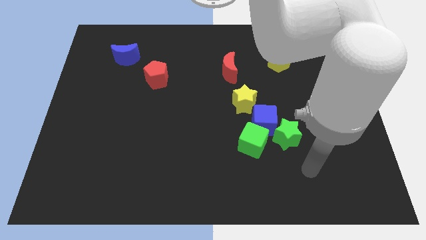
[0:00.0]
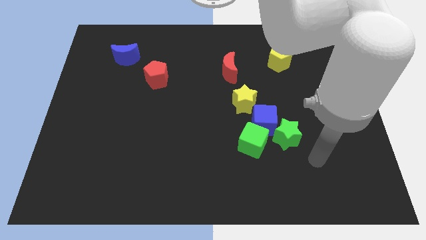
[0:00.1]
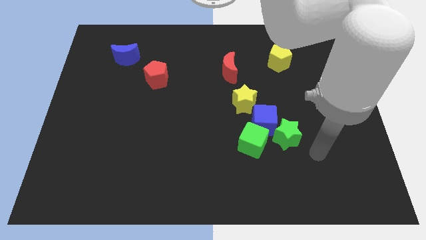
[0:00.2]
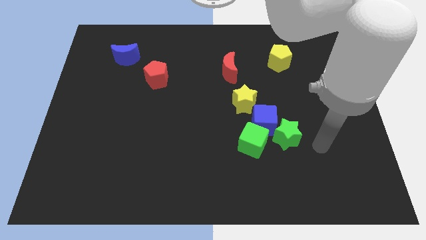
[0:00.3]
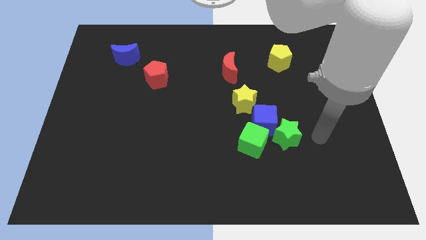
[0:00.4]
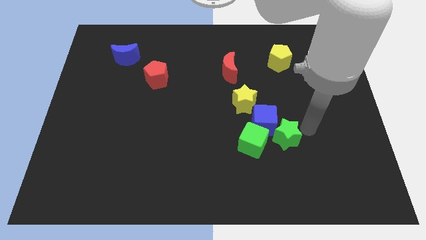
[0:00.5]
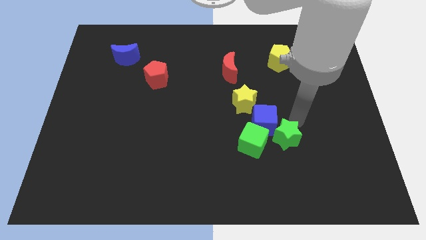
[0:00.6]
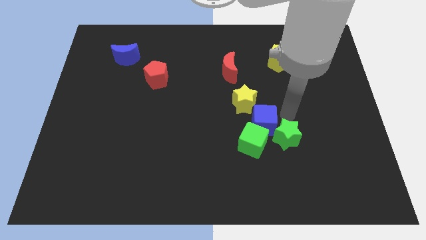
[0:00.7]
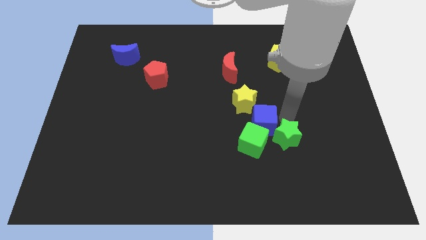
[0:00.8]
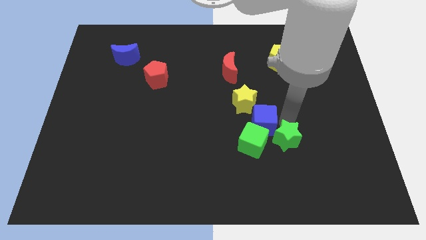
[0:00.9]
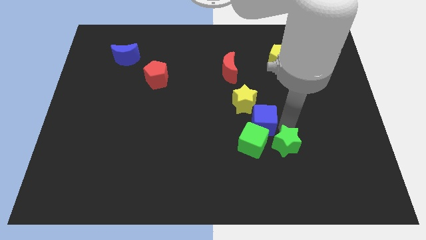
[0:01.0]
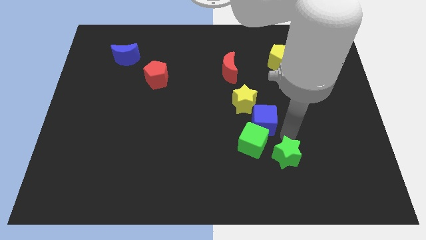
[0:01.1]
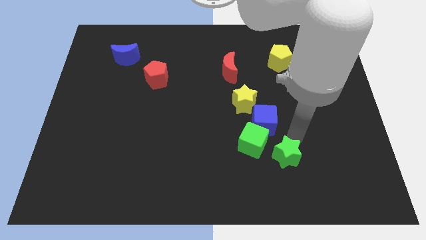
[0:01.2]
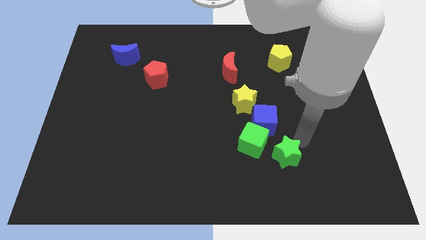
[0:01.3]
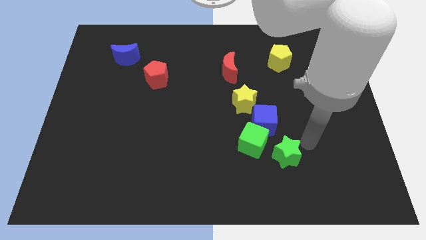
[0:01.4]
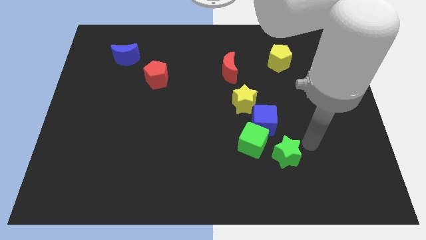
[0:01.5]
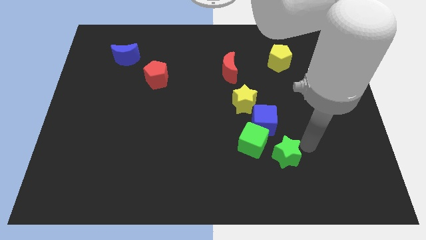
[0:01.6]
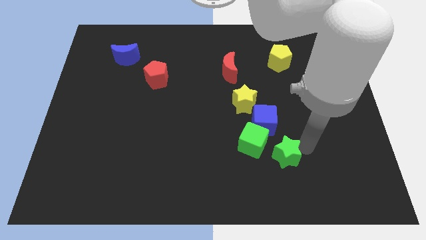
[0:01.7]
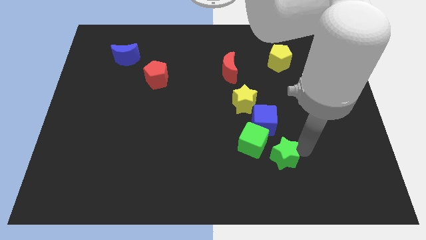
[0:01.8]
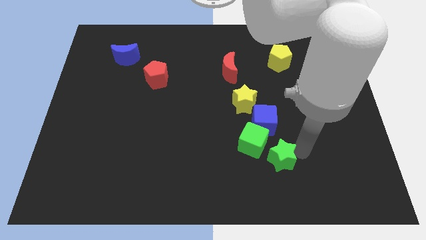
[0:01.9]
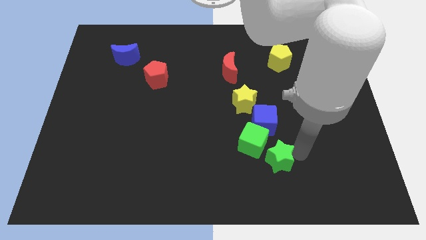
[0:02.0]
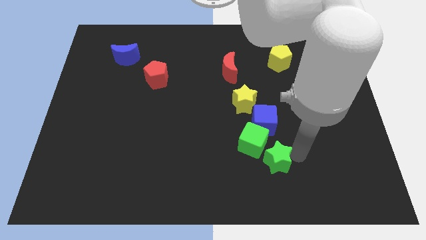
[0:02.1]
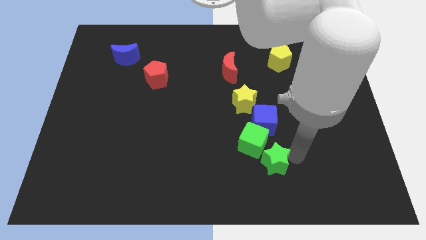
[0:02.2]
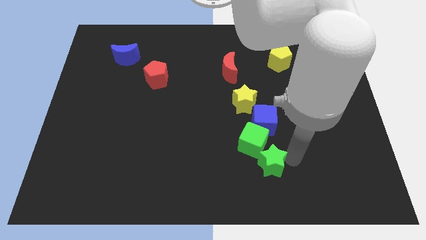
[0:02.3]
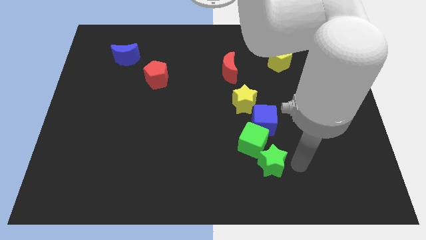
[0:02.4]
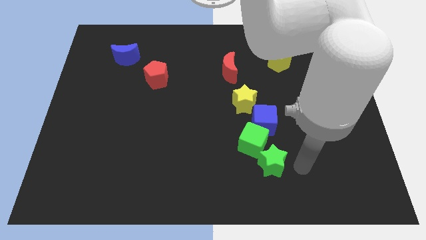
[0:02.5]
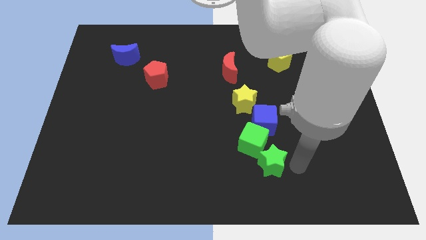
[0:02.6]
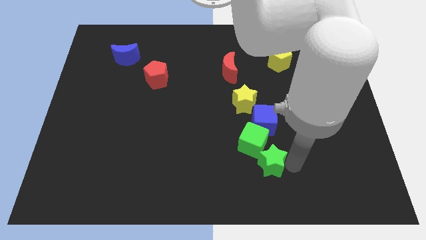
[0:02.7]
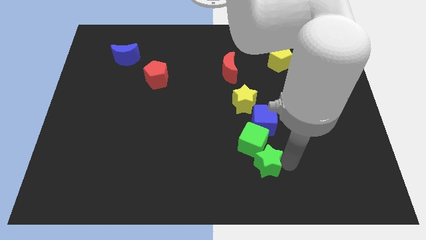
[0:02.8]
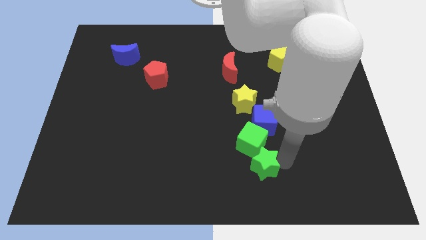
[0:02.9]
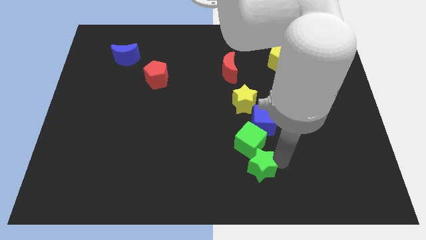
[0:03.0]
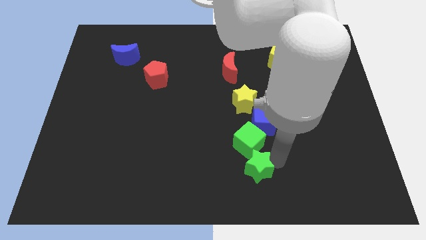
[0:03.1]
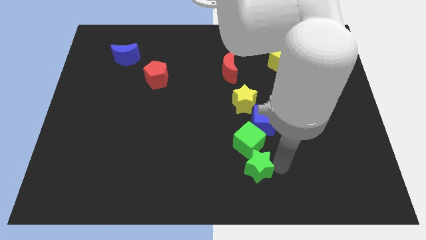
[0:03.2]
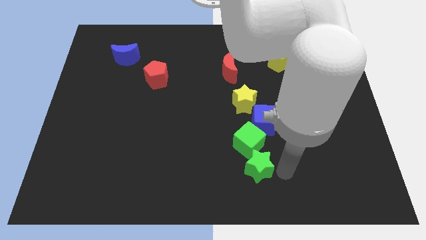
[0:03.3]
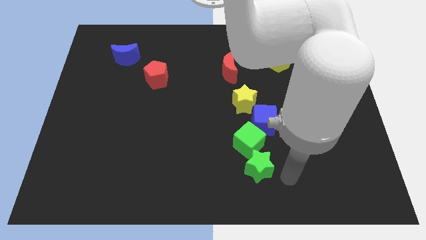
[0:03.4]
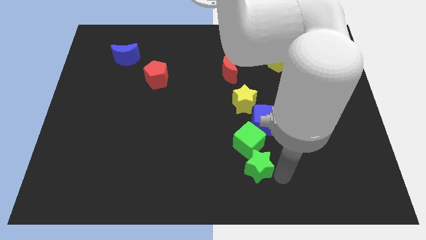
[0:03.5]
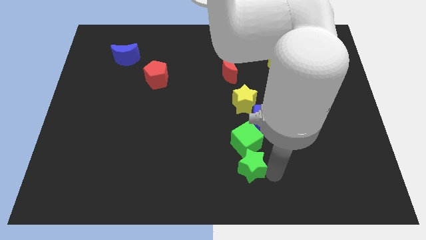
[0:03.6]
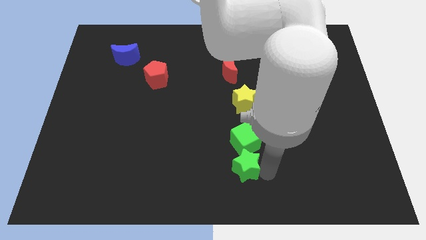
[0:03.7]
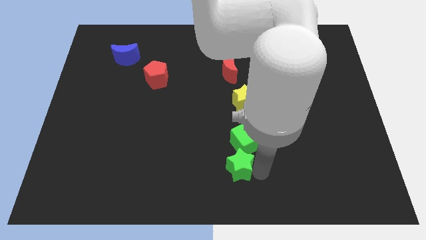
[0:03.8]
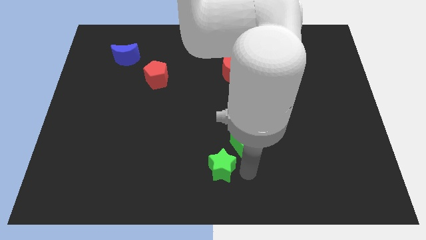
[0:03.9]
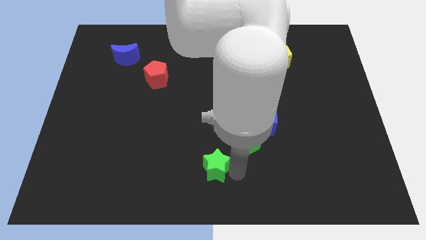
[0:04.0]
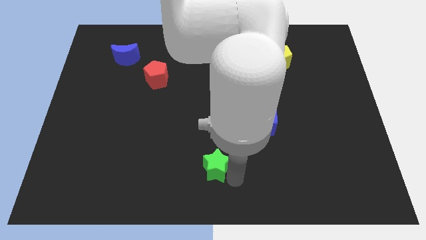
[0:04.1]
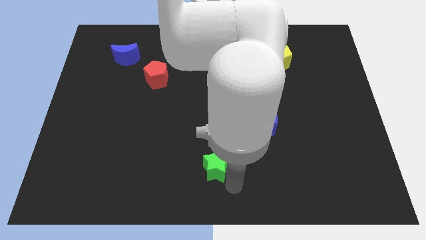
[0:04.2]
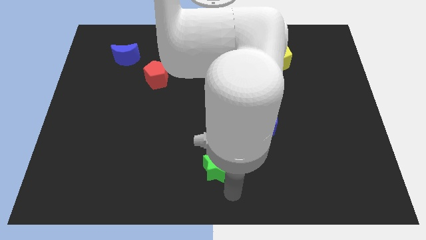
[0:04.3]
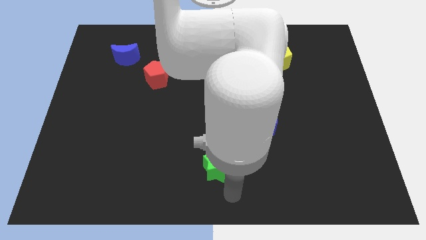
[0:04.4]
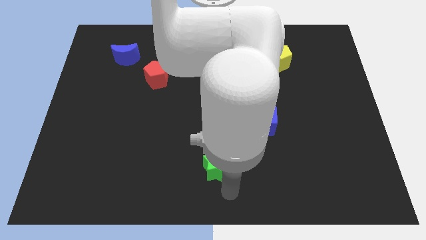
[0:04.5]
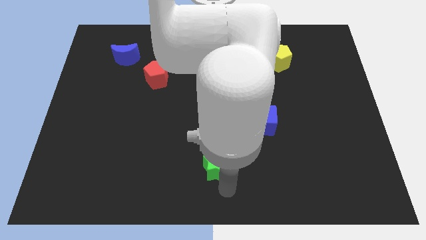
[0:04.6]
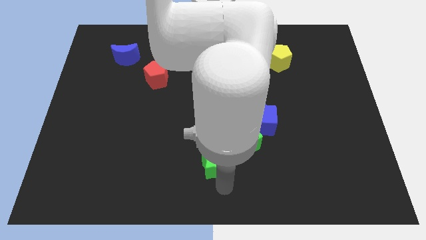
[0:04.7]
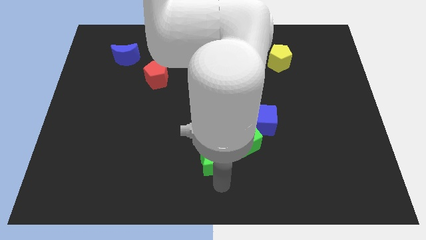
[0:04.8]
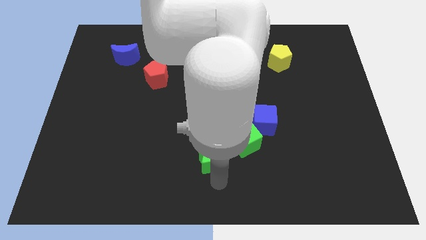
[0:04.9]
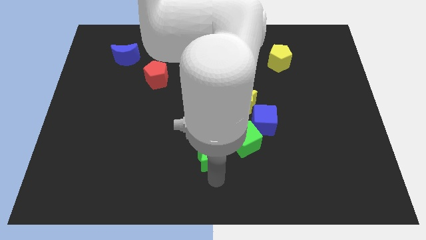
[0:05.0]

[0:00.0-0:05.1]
move the green star left of the green cube

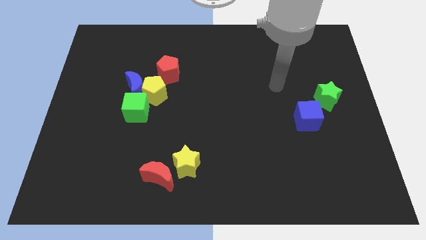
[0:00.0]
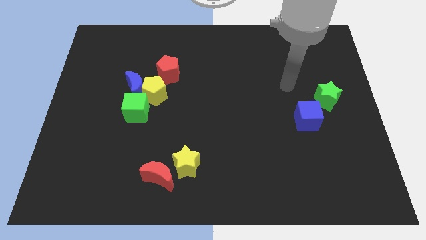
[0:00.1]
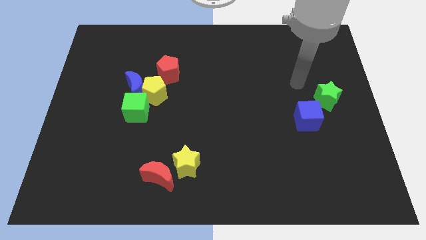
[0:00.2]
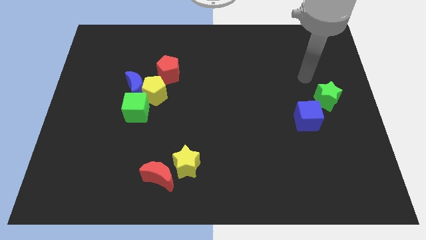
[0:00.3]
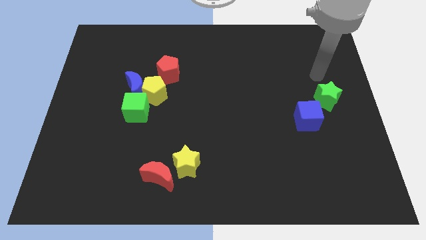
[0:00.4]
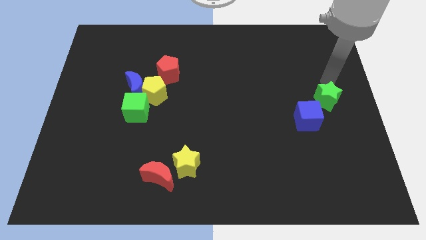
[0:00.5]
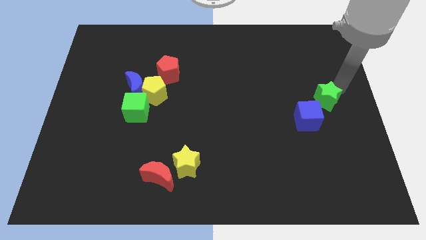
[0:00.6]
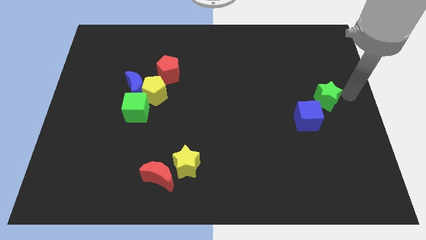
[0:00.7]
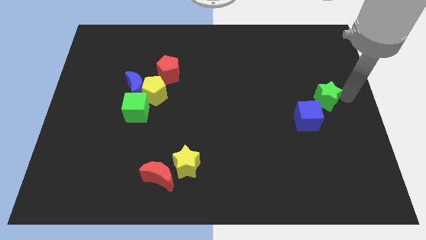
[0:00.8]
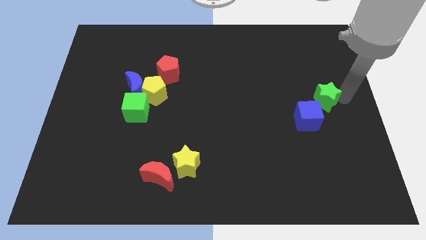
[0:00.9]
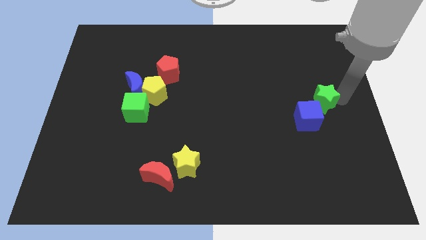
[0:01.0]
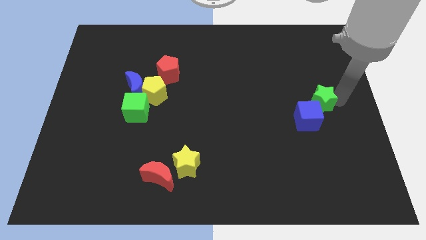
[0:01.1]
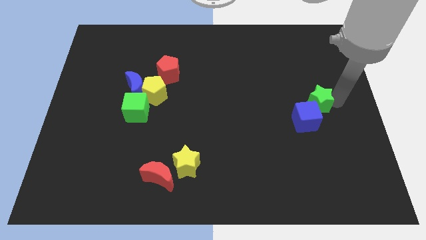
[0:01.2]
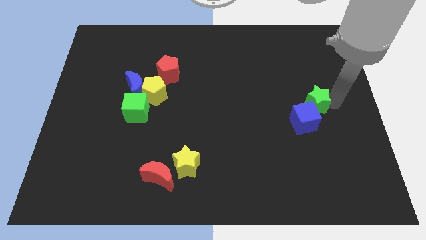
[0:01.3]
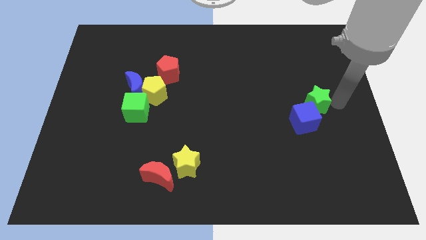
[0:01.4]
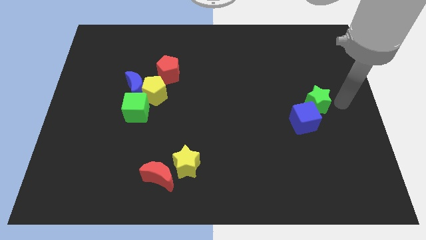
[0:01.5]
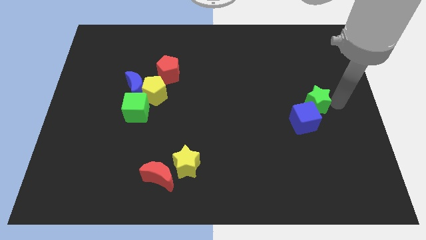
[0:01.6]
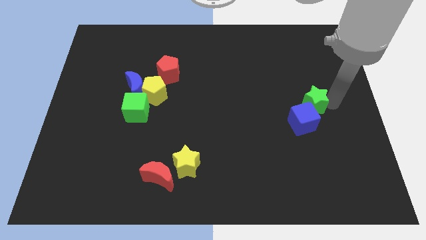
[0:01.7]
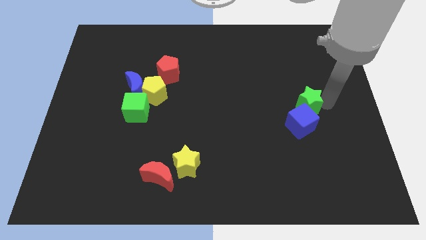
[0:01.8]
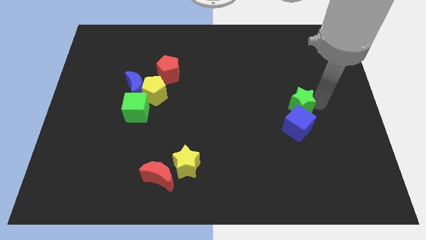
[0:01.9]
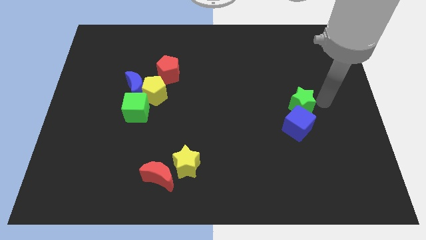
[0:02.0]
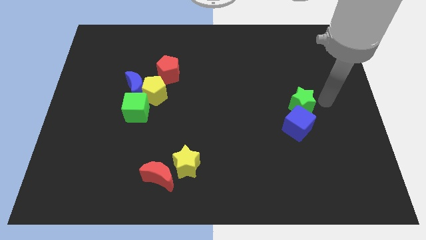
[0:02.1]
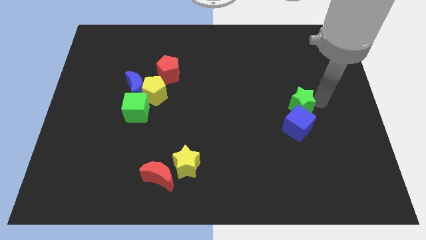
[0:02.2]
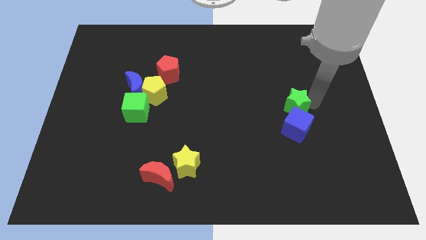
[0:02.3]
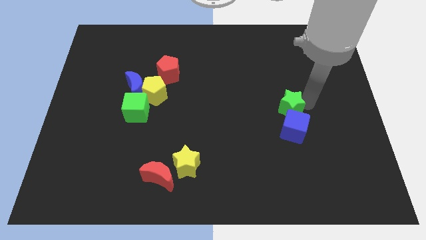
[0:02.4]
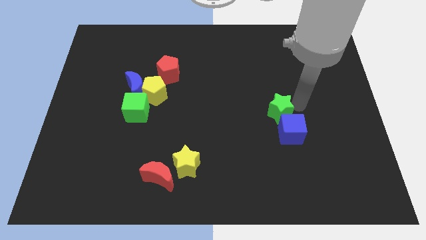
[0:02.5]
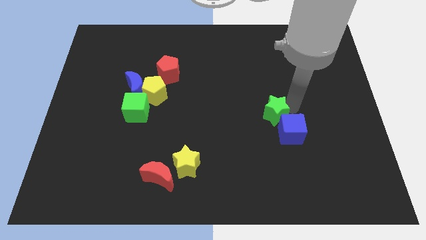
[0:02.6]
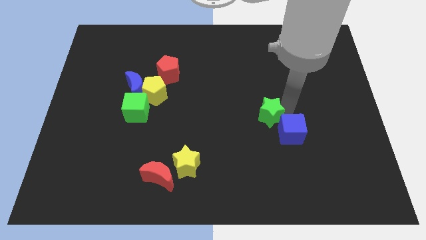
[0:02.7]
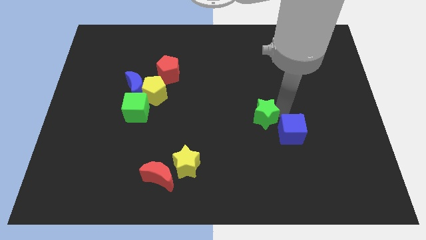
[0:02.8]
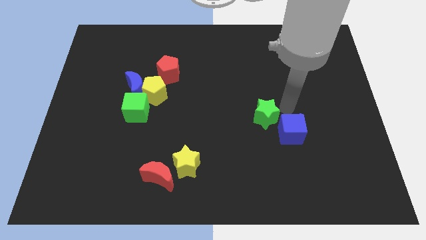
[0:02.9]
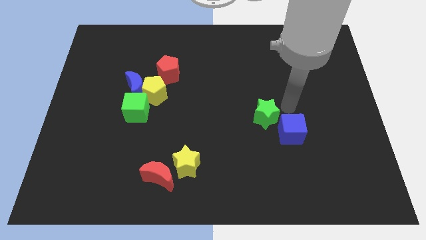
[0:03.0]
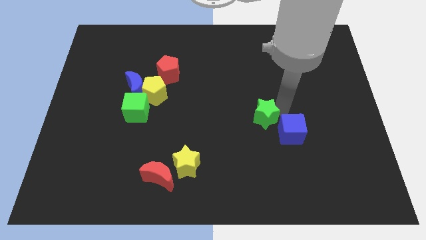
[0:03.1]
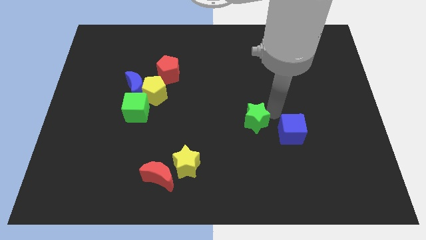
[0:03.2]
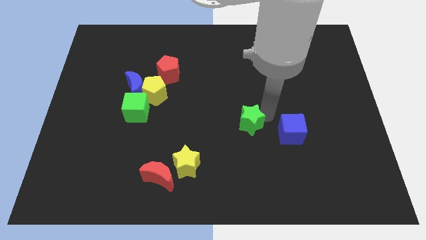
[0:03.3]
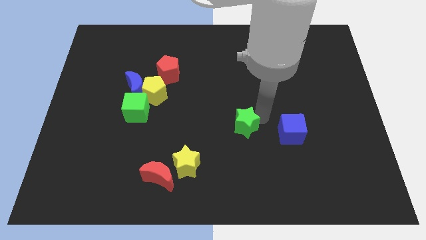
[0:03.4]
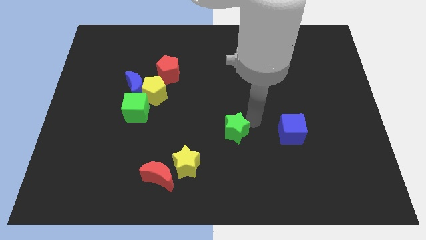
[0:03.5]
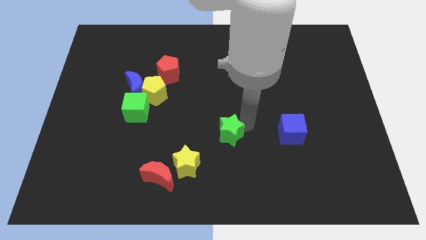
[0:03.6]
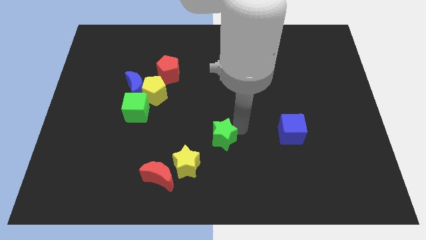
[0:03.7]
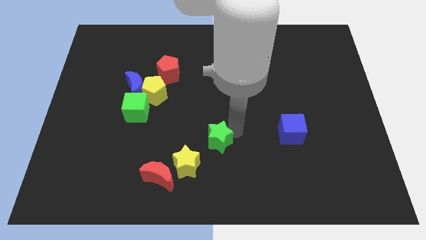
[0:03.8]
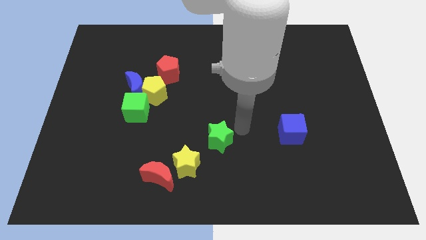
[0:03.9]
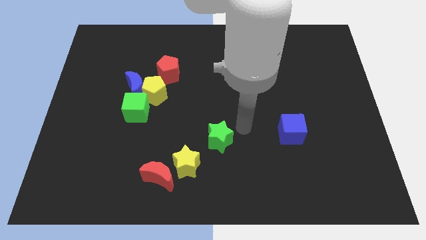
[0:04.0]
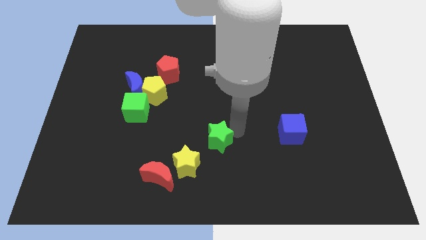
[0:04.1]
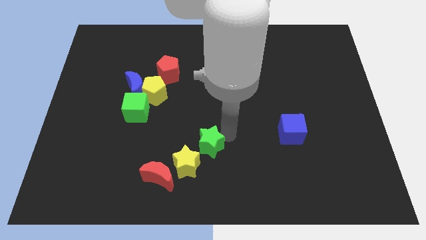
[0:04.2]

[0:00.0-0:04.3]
slide the green star to the top right side of the red moon
